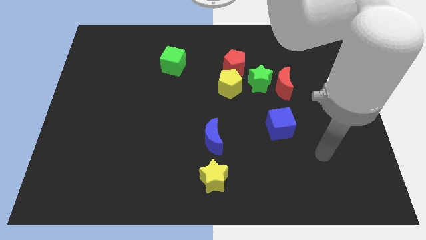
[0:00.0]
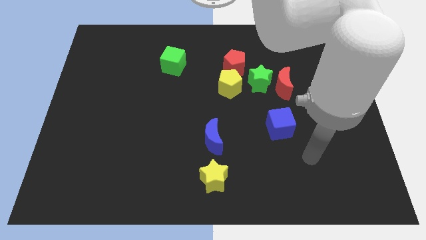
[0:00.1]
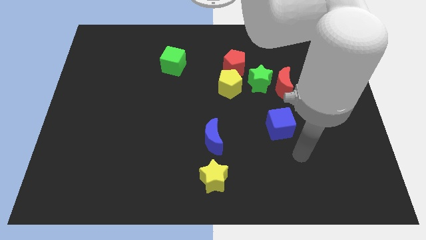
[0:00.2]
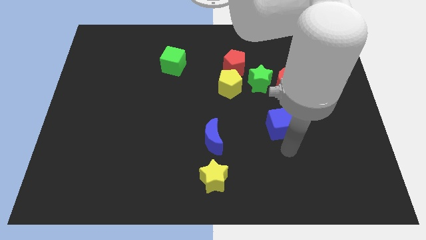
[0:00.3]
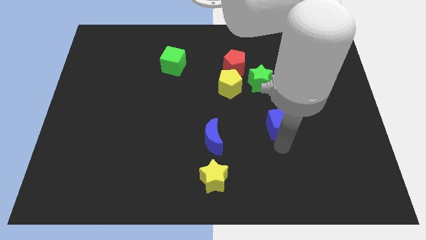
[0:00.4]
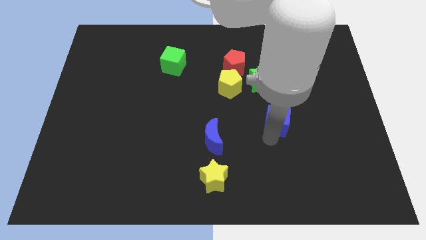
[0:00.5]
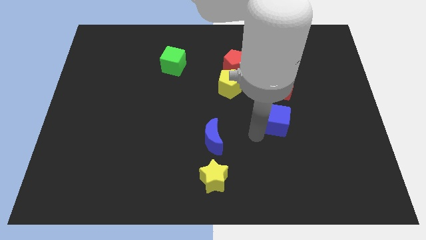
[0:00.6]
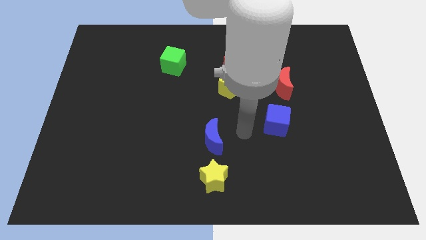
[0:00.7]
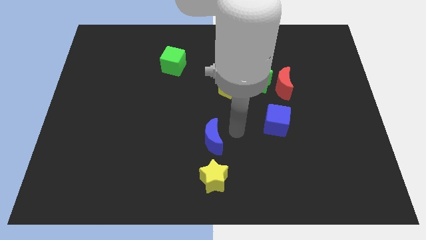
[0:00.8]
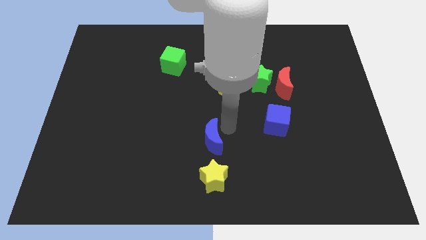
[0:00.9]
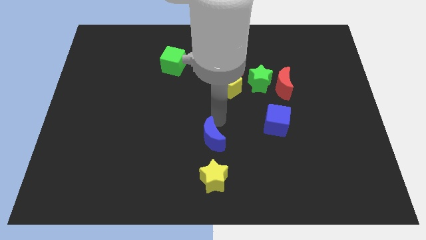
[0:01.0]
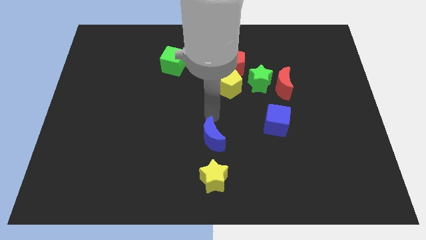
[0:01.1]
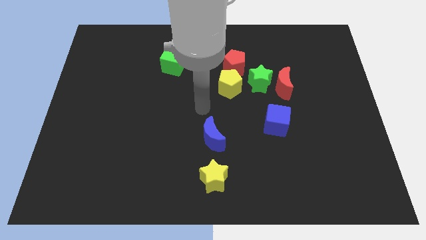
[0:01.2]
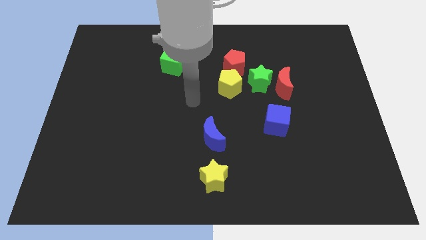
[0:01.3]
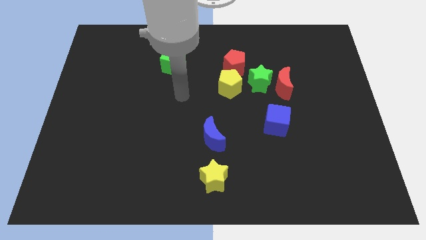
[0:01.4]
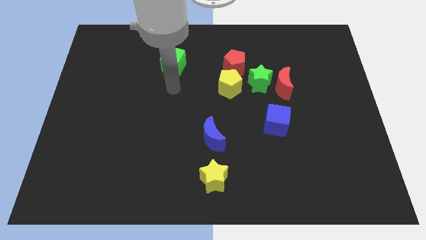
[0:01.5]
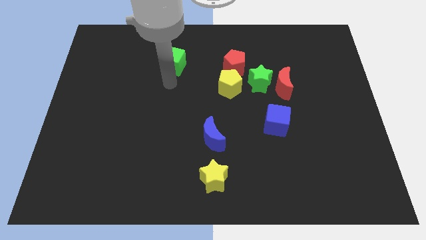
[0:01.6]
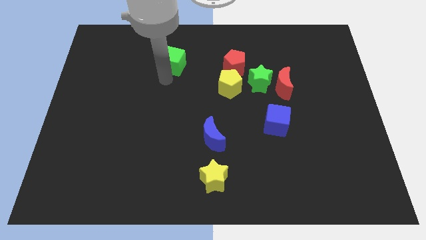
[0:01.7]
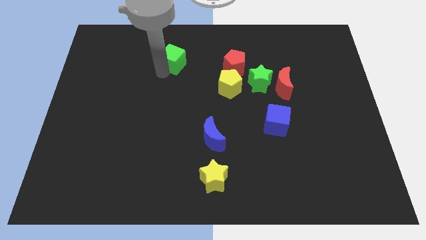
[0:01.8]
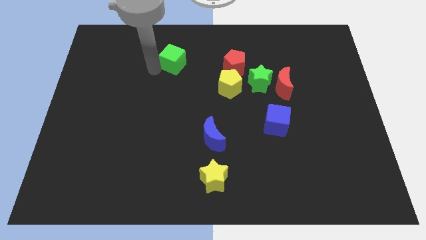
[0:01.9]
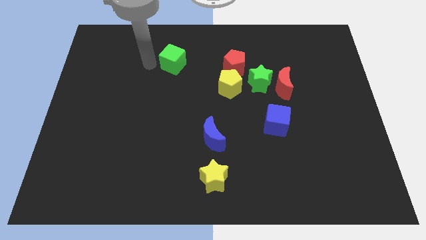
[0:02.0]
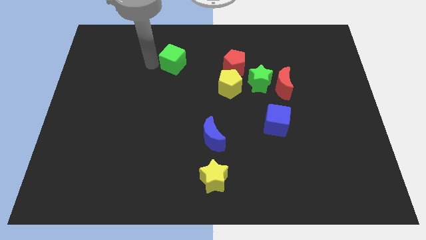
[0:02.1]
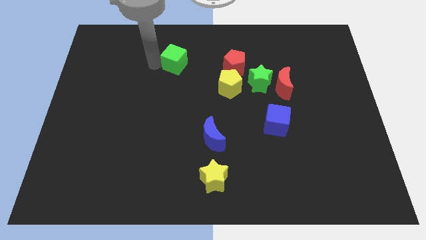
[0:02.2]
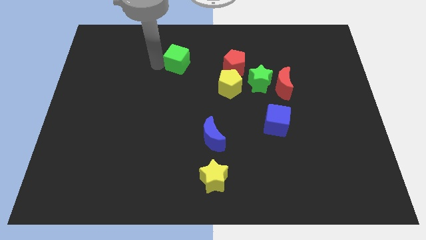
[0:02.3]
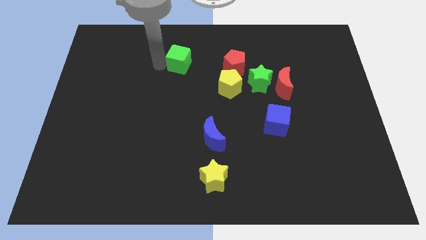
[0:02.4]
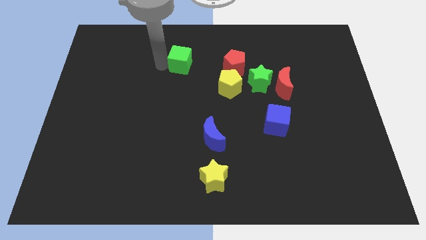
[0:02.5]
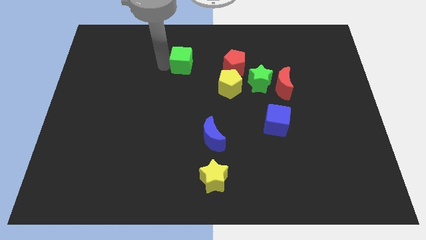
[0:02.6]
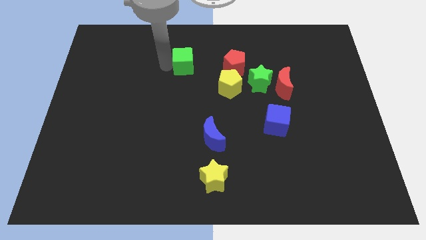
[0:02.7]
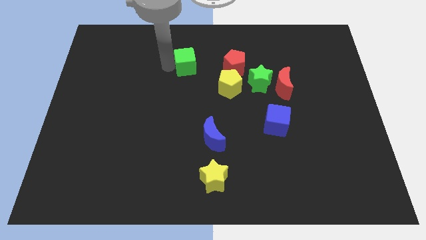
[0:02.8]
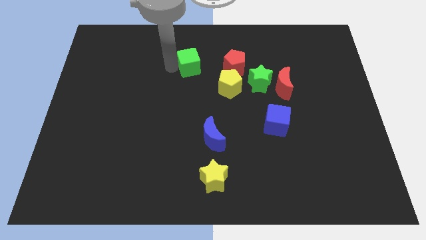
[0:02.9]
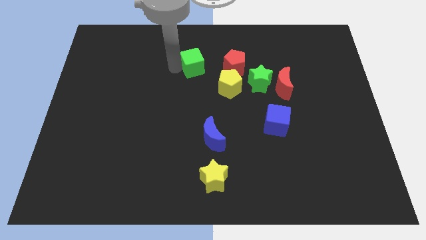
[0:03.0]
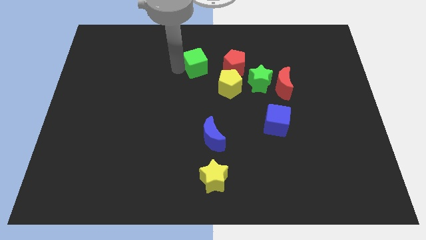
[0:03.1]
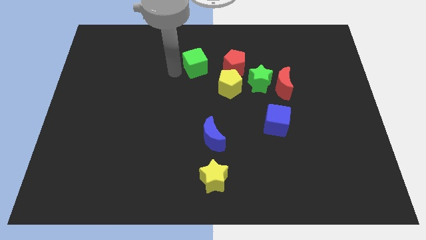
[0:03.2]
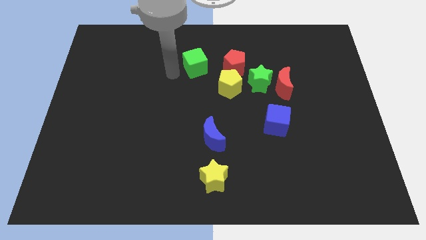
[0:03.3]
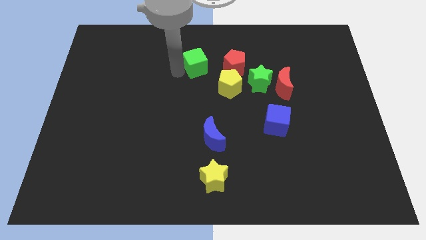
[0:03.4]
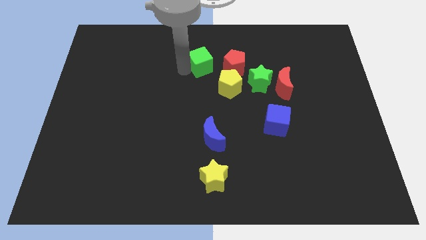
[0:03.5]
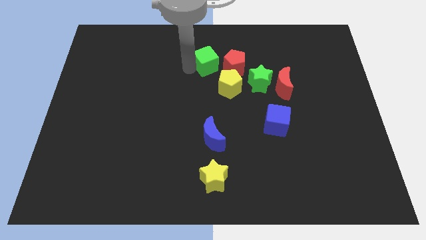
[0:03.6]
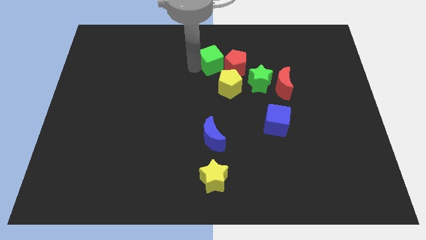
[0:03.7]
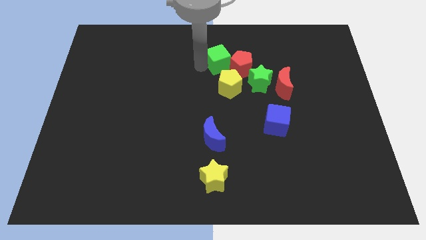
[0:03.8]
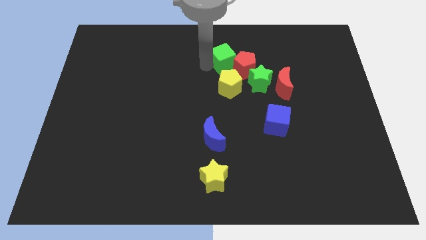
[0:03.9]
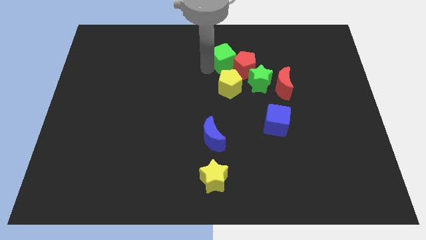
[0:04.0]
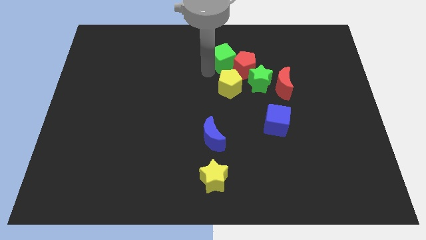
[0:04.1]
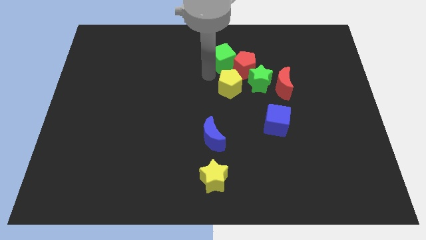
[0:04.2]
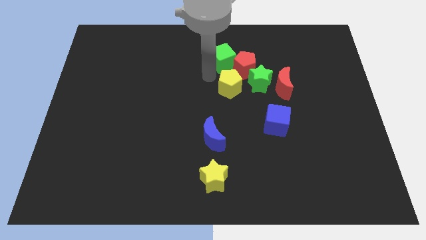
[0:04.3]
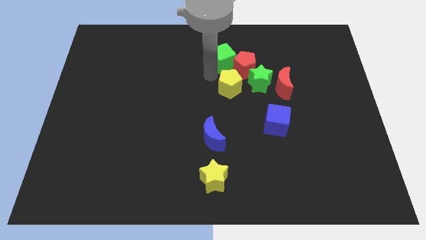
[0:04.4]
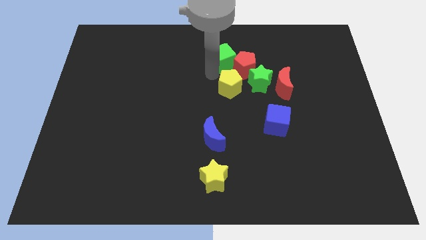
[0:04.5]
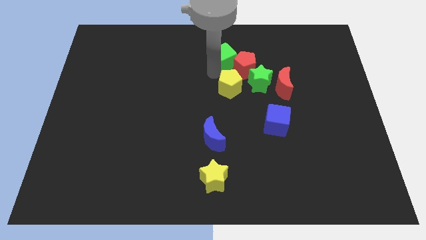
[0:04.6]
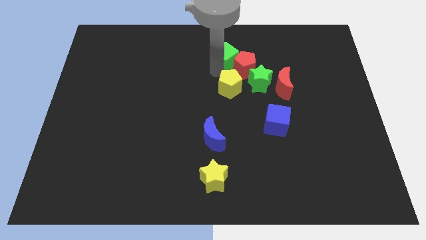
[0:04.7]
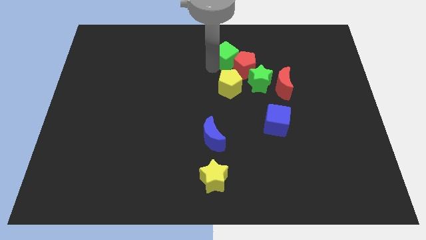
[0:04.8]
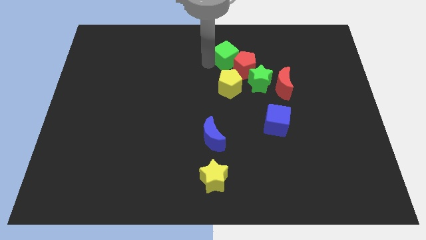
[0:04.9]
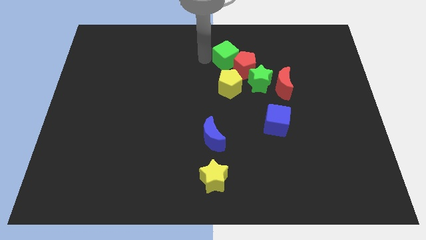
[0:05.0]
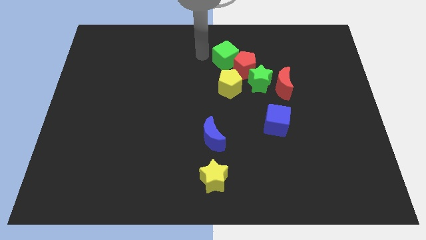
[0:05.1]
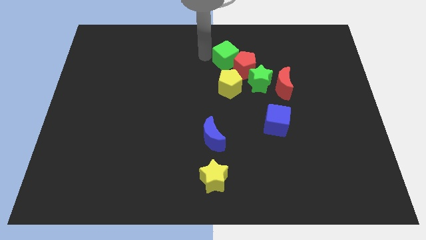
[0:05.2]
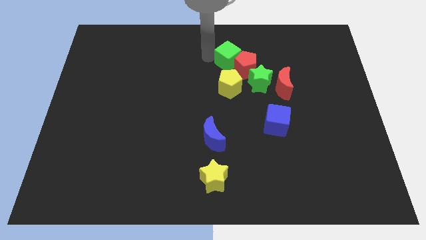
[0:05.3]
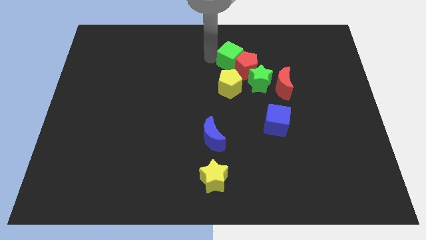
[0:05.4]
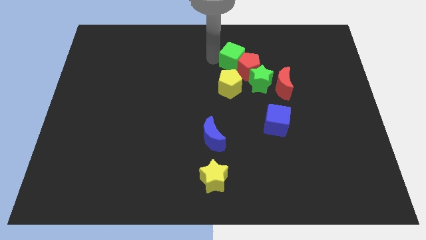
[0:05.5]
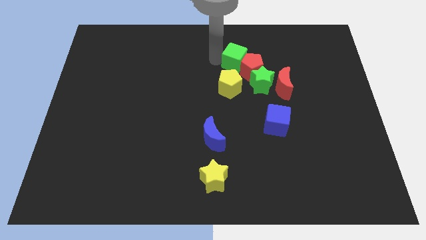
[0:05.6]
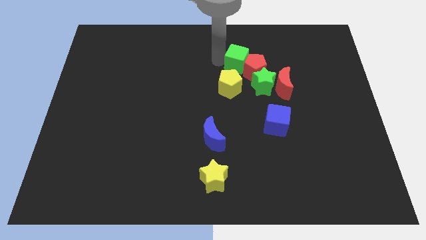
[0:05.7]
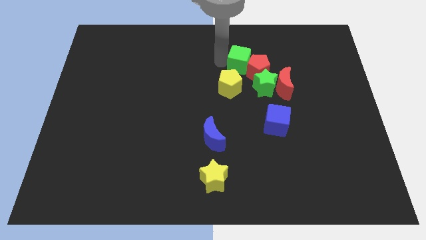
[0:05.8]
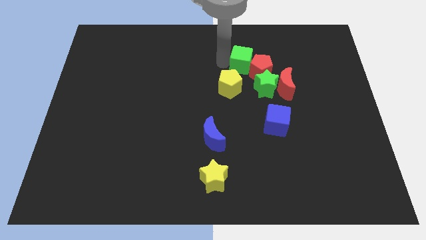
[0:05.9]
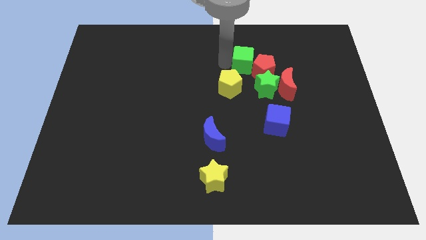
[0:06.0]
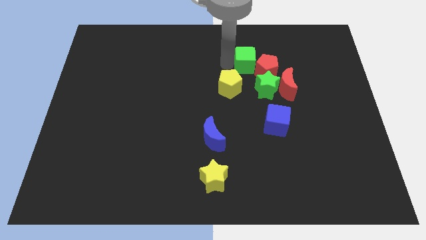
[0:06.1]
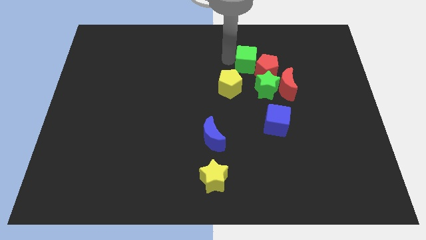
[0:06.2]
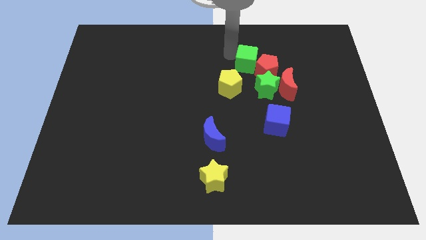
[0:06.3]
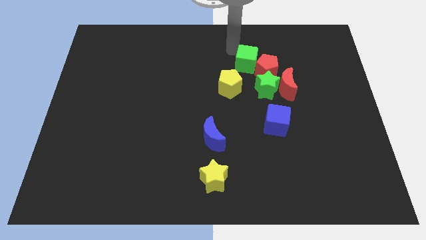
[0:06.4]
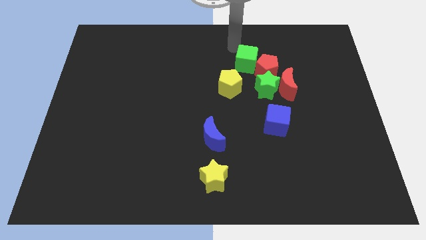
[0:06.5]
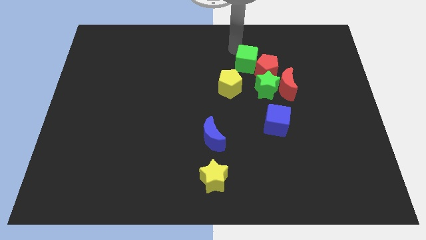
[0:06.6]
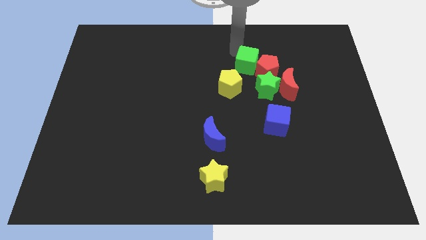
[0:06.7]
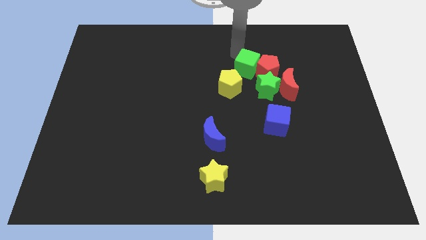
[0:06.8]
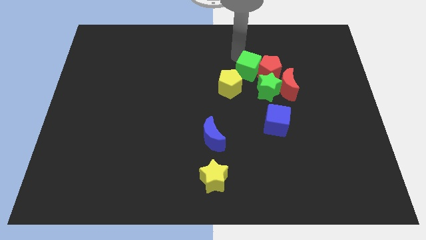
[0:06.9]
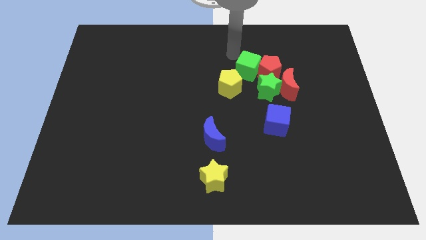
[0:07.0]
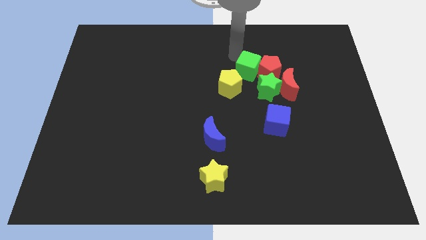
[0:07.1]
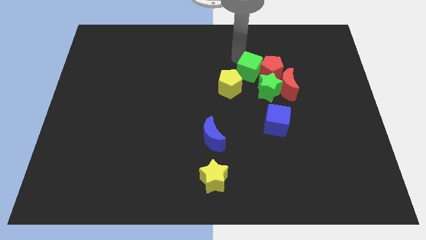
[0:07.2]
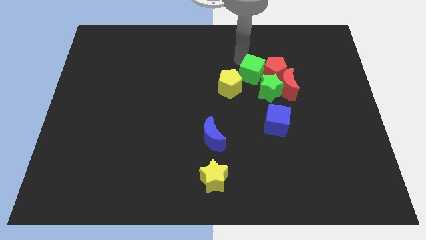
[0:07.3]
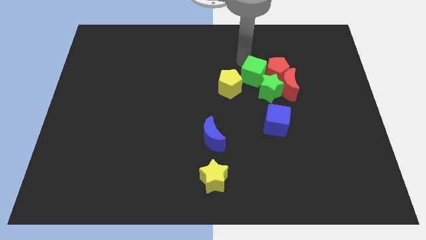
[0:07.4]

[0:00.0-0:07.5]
put the green cube towards the green star

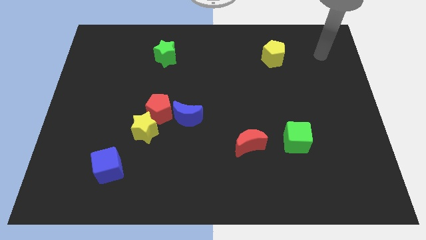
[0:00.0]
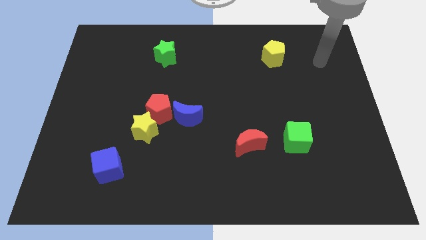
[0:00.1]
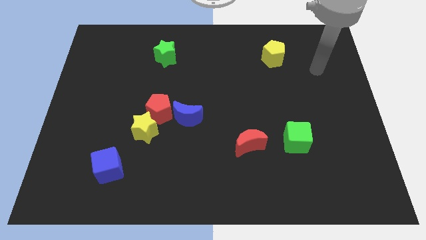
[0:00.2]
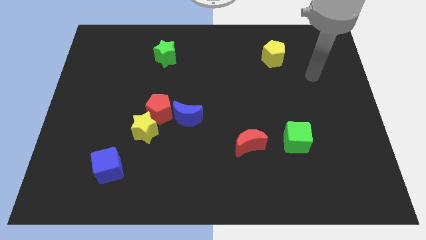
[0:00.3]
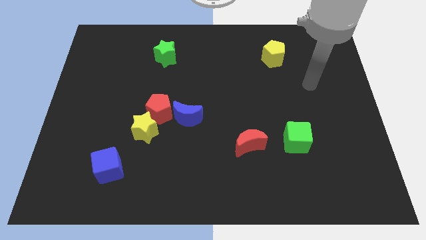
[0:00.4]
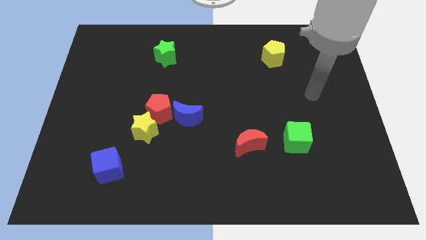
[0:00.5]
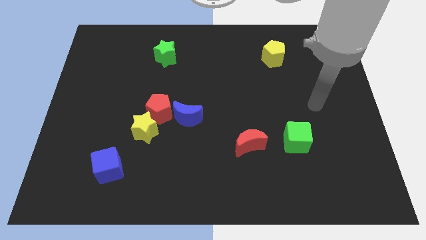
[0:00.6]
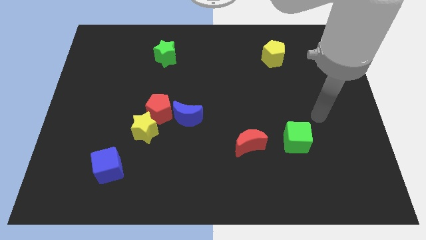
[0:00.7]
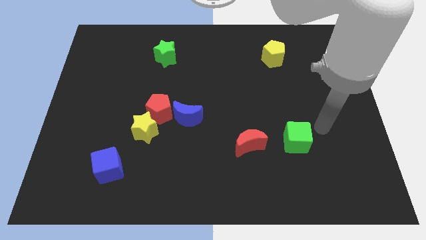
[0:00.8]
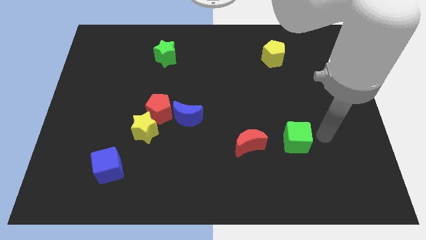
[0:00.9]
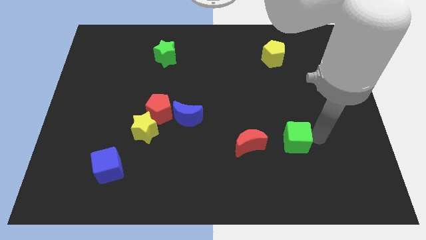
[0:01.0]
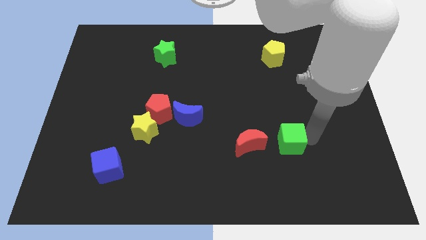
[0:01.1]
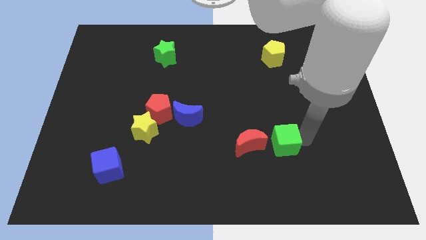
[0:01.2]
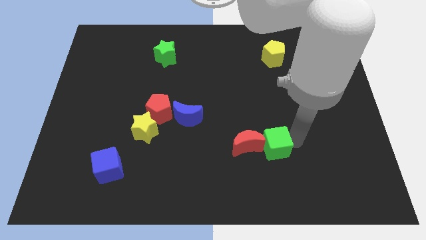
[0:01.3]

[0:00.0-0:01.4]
move the green cube next to the red moon
